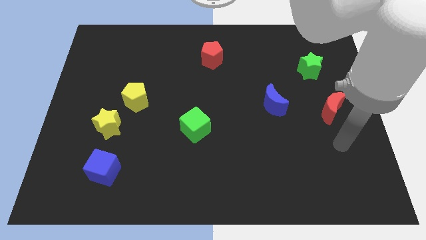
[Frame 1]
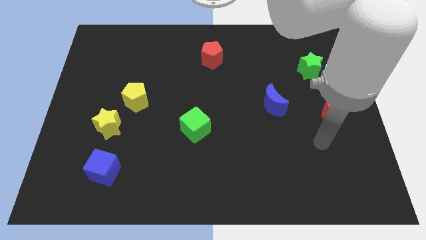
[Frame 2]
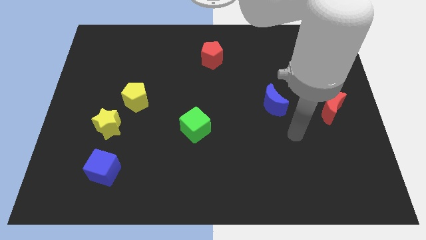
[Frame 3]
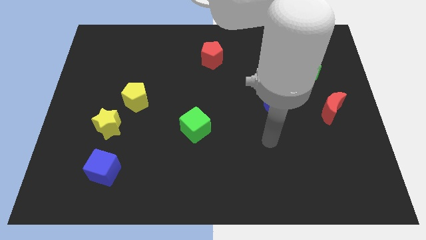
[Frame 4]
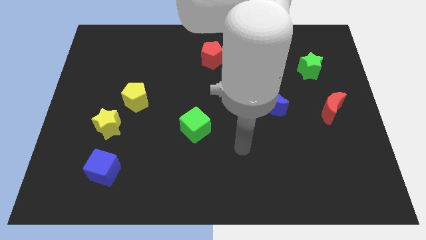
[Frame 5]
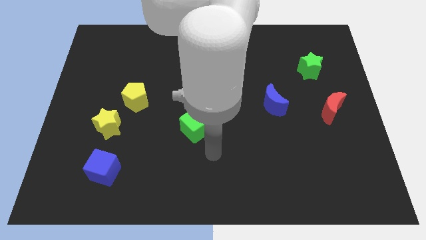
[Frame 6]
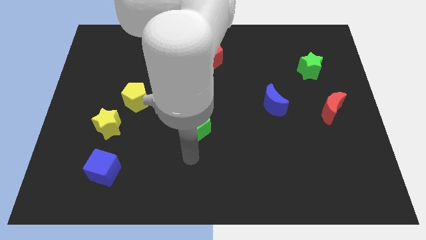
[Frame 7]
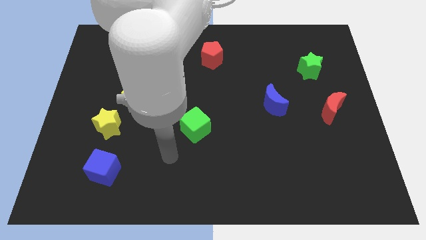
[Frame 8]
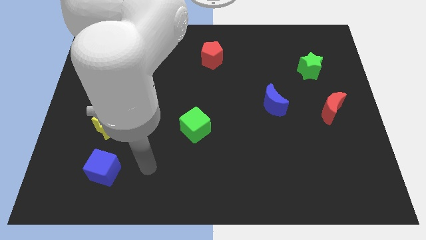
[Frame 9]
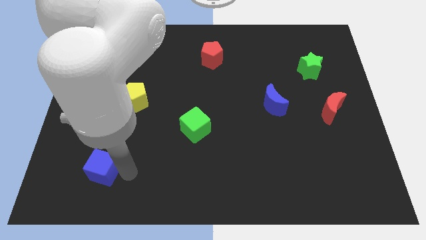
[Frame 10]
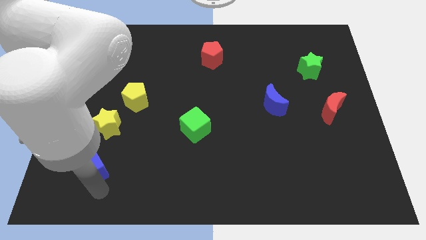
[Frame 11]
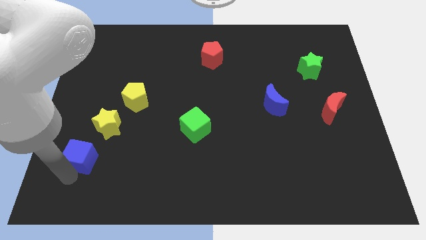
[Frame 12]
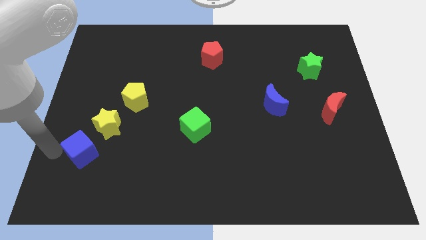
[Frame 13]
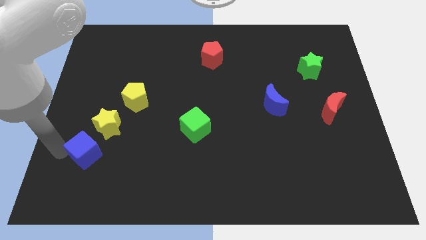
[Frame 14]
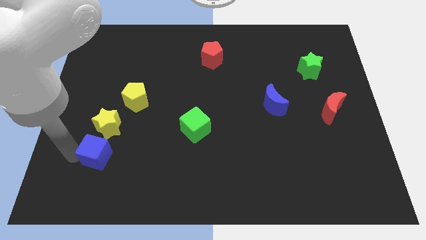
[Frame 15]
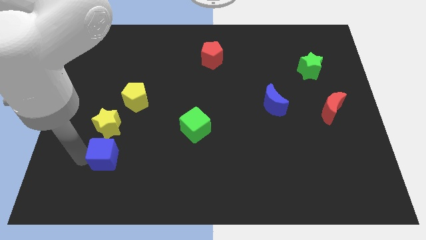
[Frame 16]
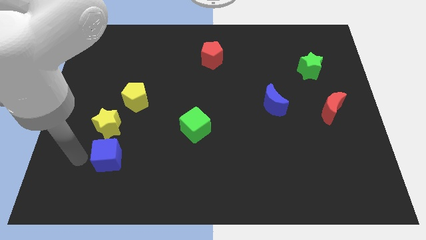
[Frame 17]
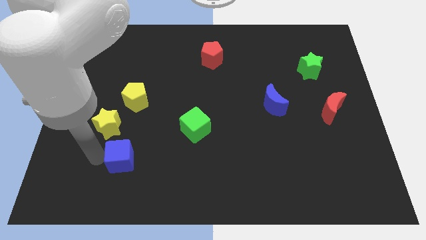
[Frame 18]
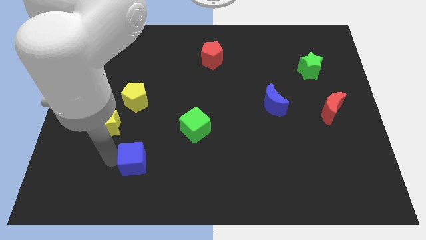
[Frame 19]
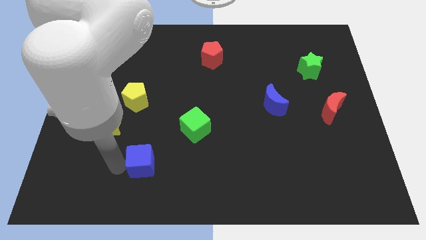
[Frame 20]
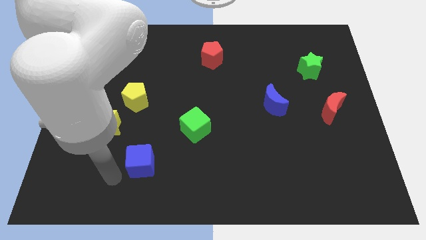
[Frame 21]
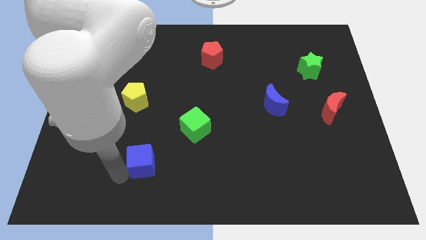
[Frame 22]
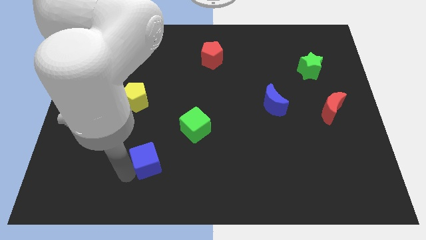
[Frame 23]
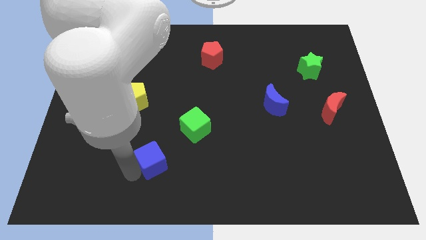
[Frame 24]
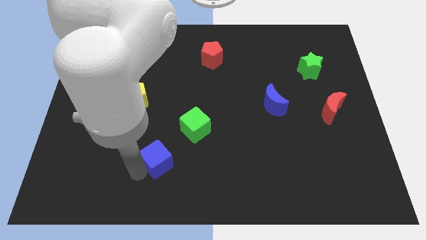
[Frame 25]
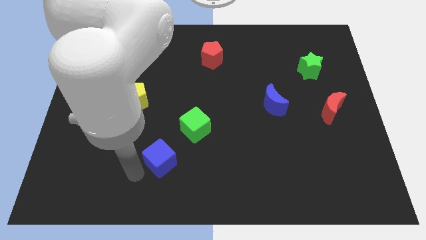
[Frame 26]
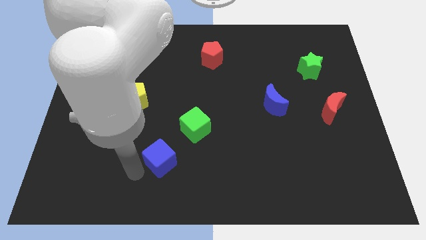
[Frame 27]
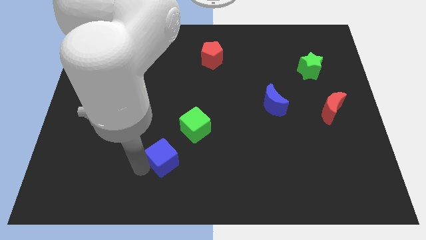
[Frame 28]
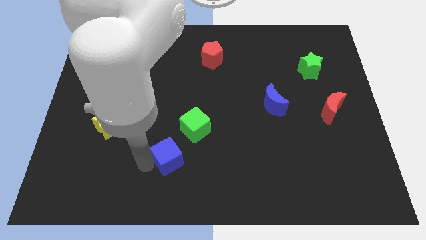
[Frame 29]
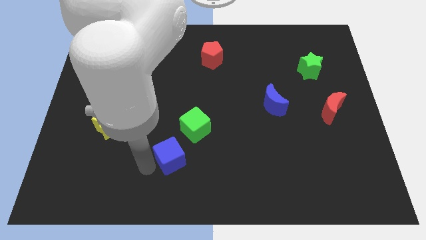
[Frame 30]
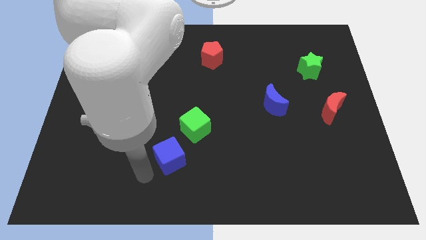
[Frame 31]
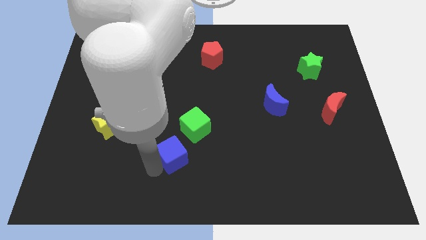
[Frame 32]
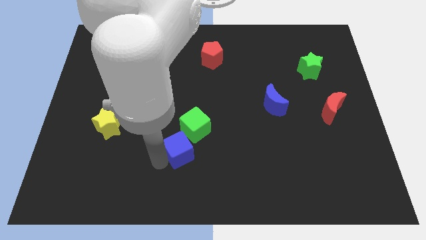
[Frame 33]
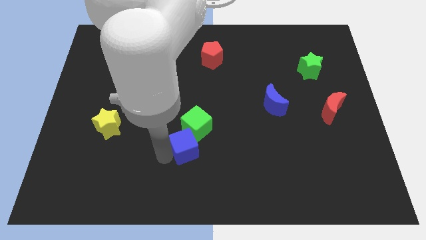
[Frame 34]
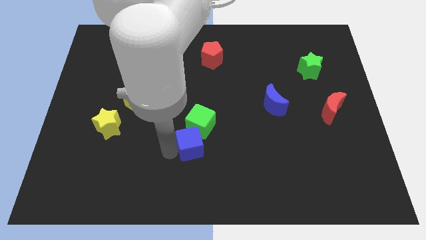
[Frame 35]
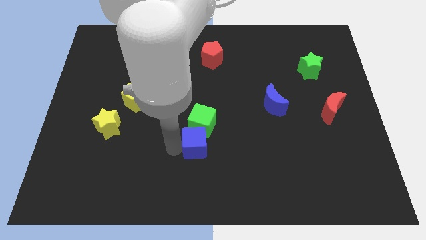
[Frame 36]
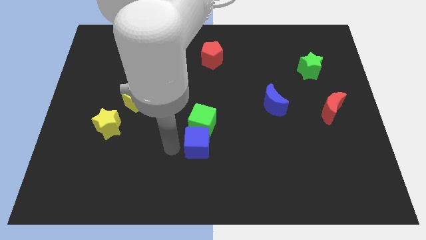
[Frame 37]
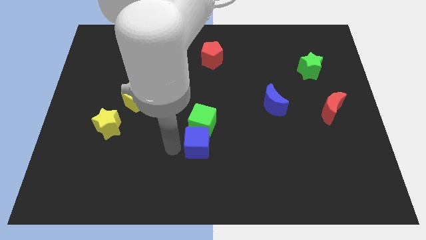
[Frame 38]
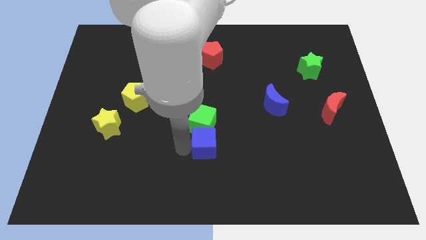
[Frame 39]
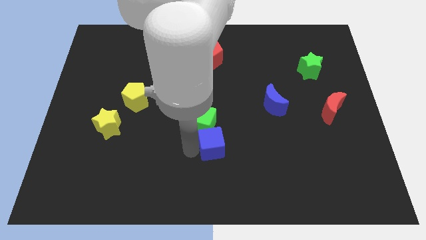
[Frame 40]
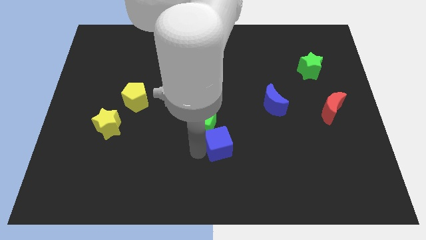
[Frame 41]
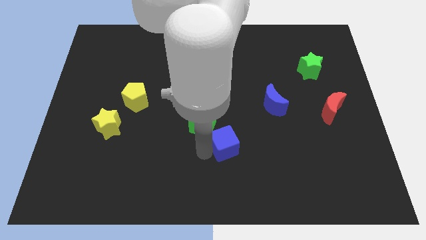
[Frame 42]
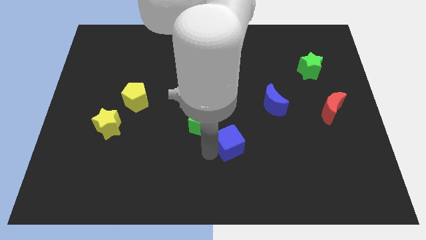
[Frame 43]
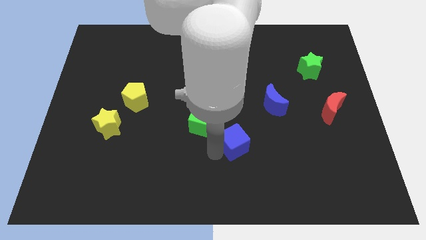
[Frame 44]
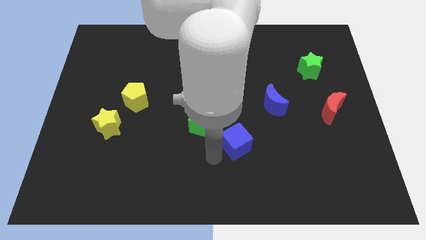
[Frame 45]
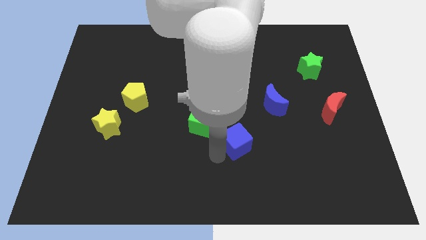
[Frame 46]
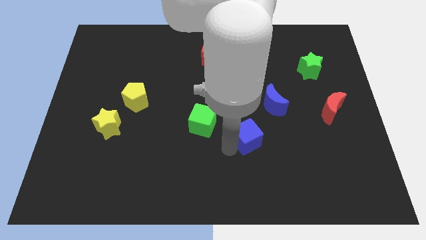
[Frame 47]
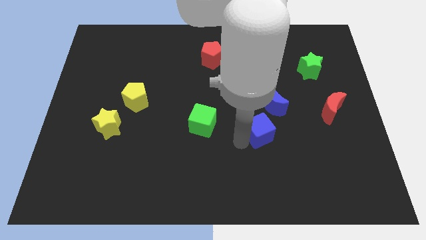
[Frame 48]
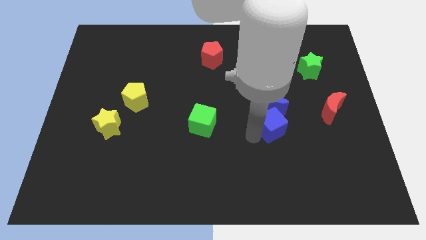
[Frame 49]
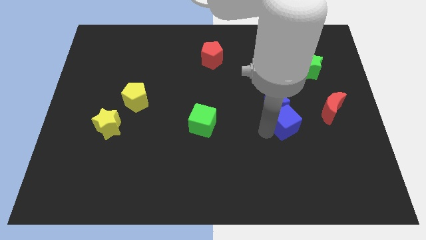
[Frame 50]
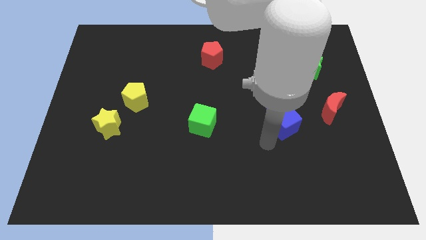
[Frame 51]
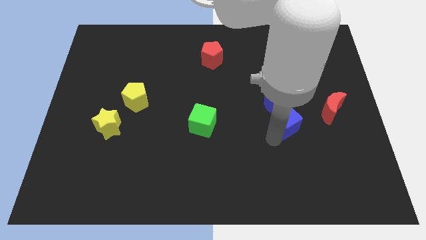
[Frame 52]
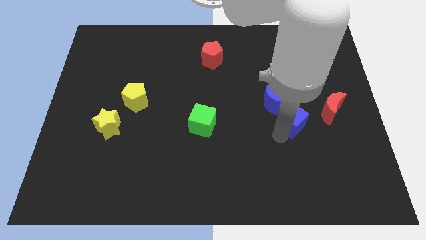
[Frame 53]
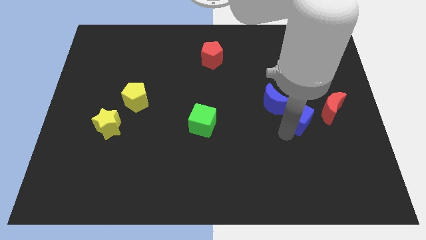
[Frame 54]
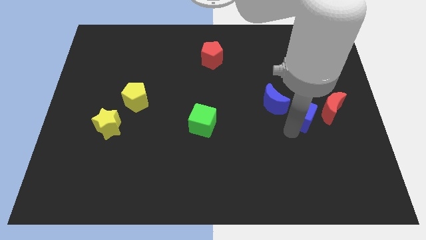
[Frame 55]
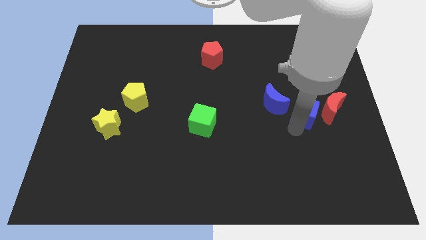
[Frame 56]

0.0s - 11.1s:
push the blue cube below the green star
